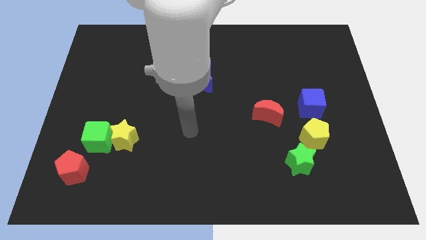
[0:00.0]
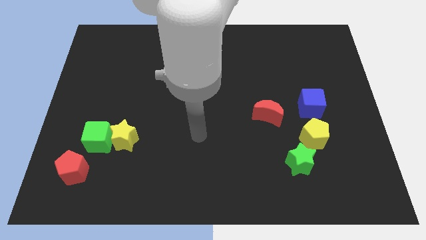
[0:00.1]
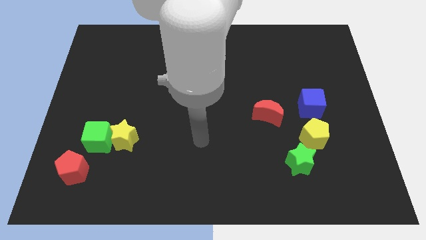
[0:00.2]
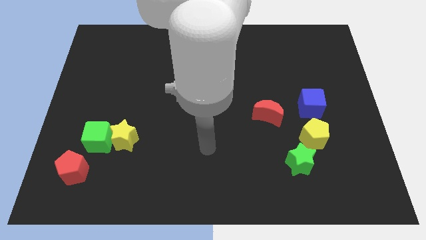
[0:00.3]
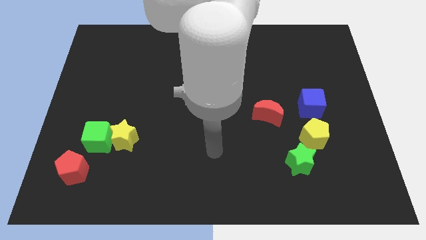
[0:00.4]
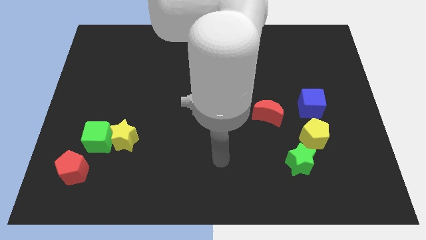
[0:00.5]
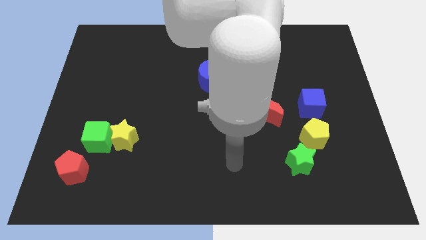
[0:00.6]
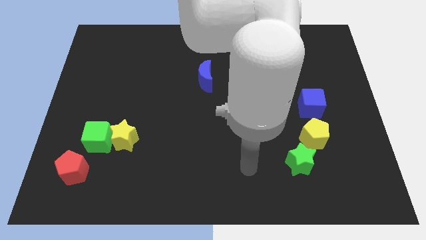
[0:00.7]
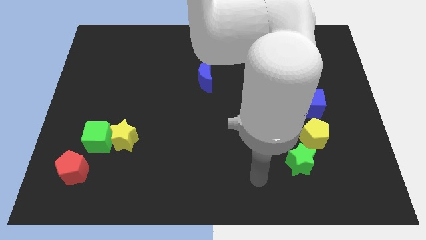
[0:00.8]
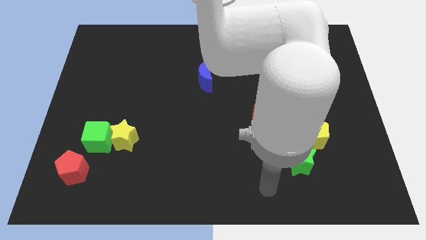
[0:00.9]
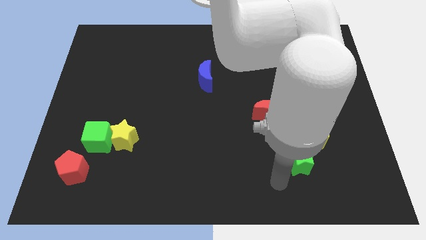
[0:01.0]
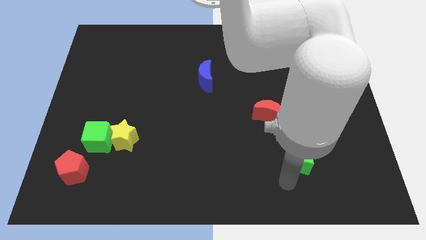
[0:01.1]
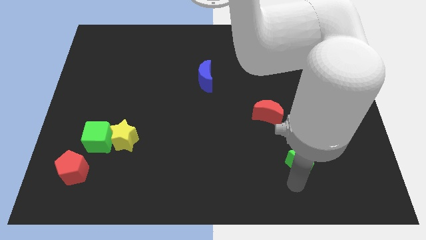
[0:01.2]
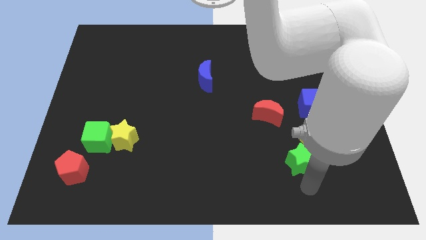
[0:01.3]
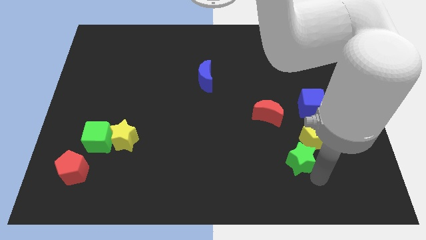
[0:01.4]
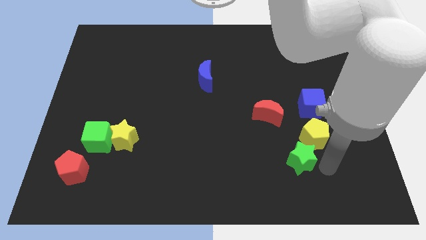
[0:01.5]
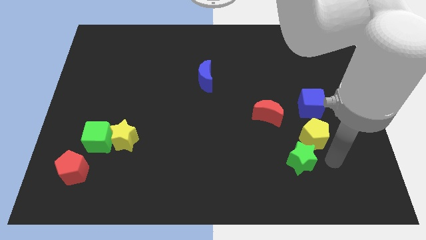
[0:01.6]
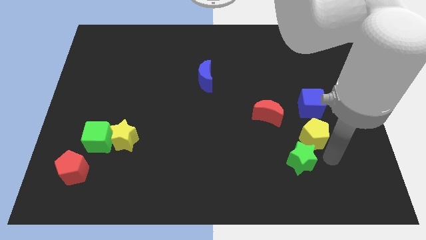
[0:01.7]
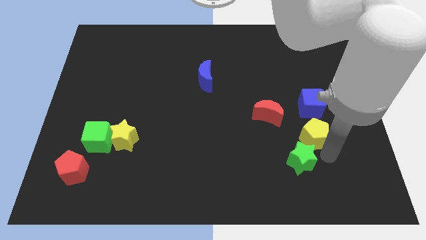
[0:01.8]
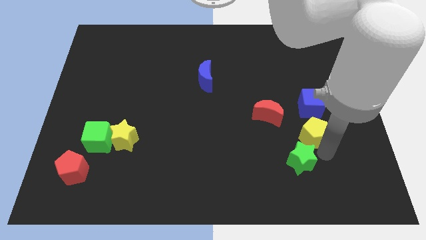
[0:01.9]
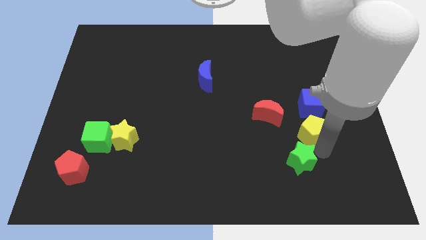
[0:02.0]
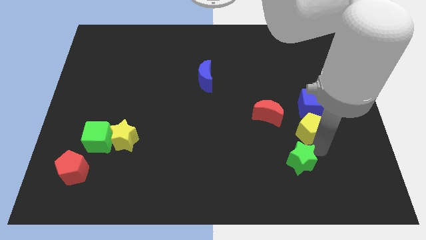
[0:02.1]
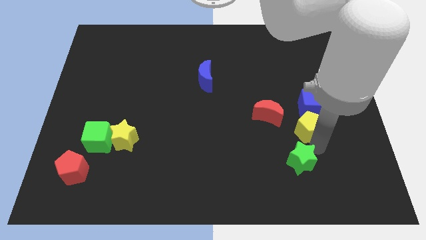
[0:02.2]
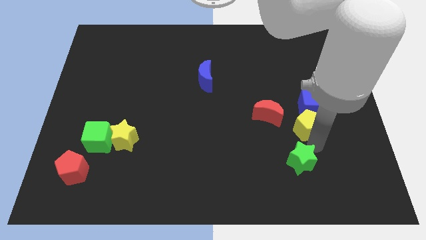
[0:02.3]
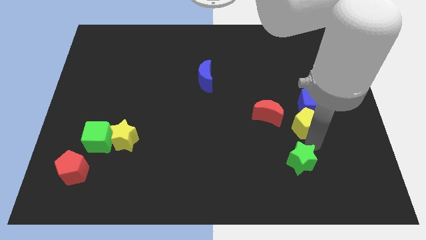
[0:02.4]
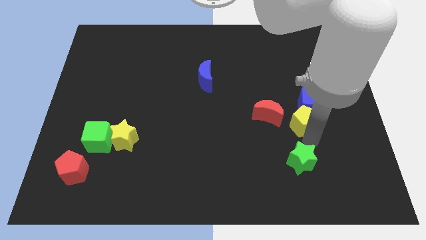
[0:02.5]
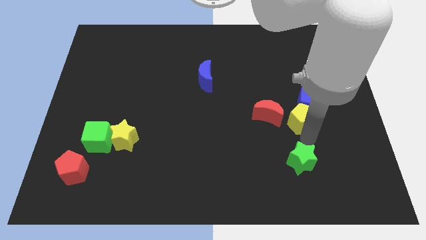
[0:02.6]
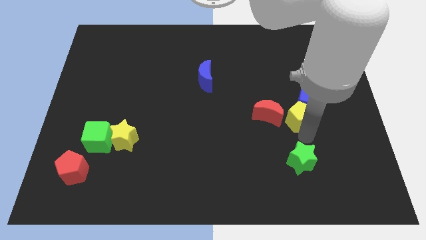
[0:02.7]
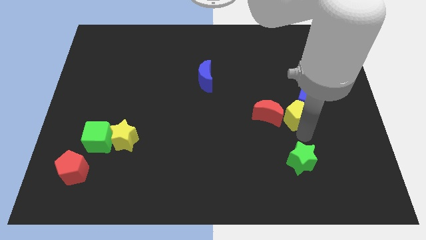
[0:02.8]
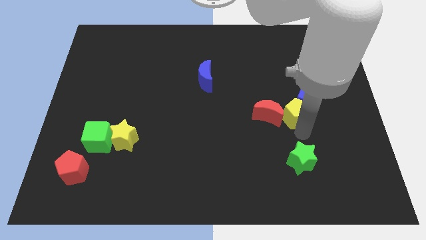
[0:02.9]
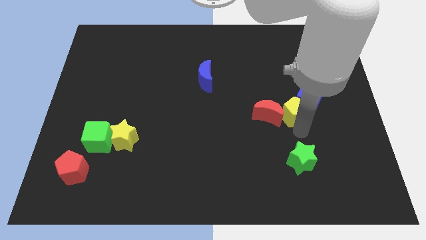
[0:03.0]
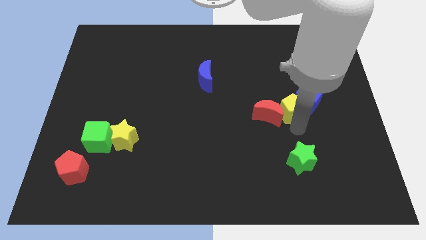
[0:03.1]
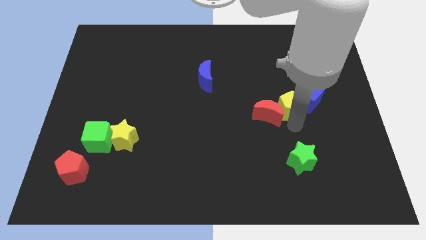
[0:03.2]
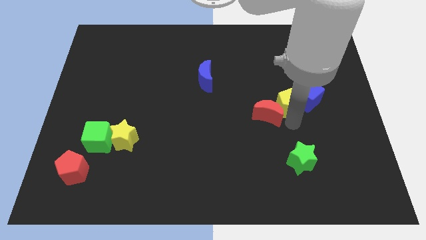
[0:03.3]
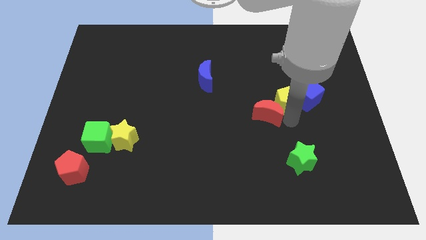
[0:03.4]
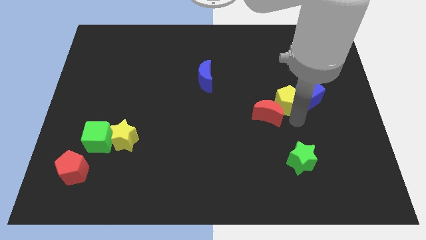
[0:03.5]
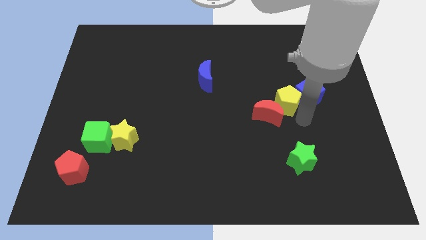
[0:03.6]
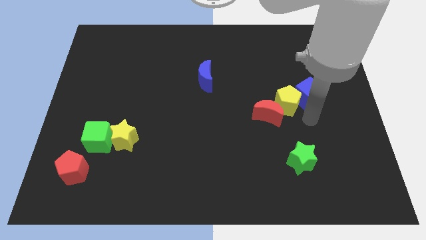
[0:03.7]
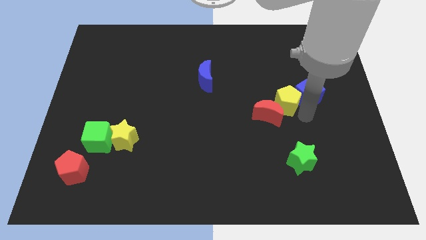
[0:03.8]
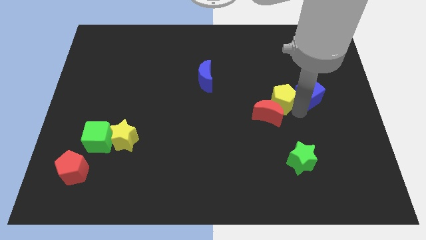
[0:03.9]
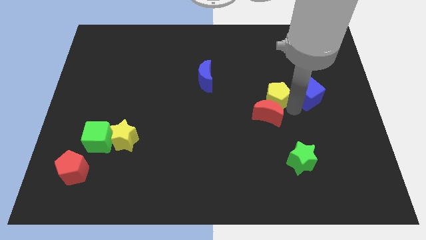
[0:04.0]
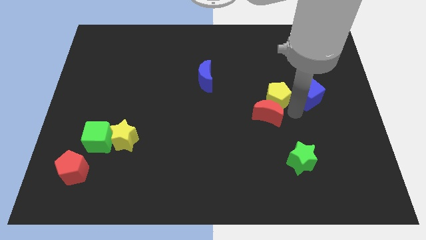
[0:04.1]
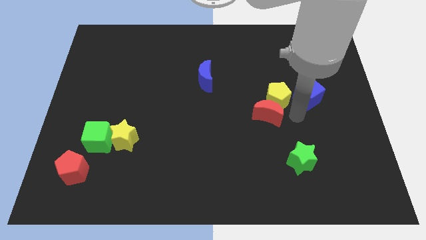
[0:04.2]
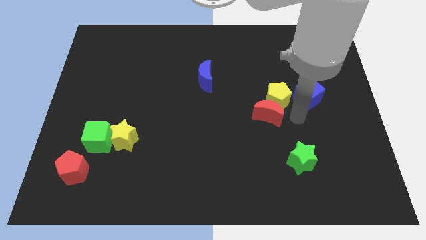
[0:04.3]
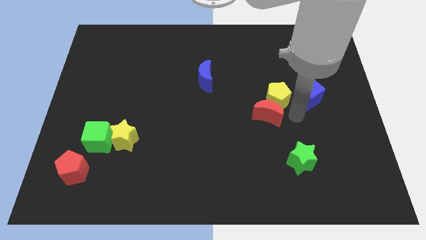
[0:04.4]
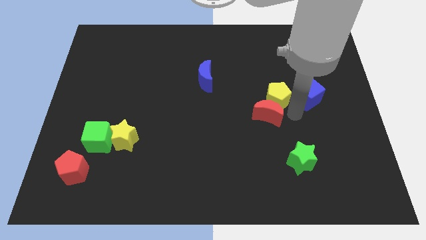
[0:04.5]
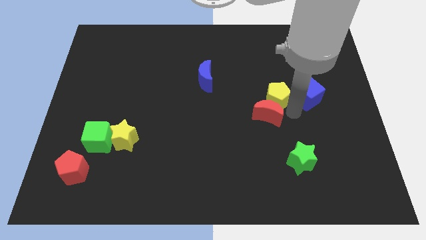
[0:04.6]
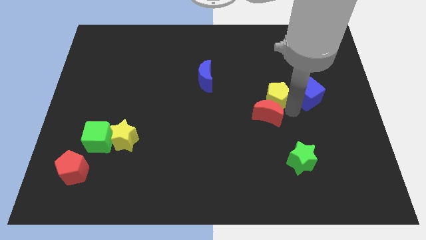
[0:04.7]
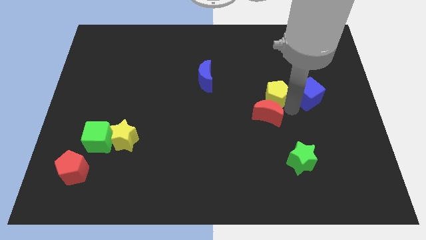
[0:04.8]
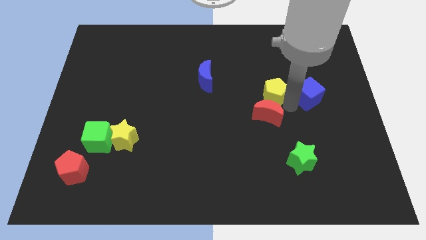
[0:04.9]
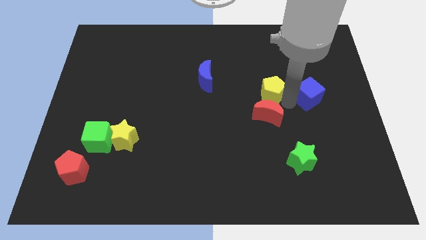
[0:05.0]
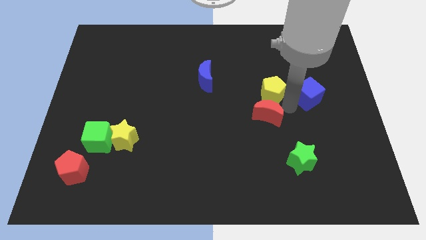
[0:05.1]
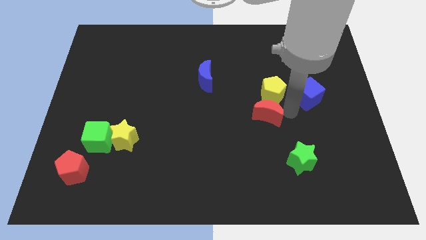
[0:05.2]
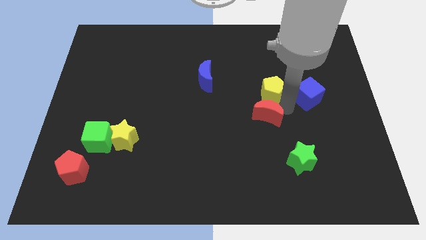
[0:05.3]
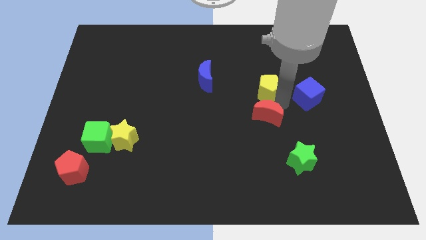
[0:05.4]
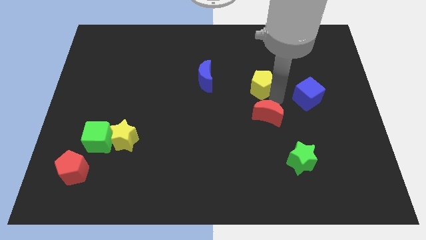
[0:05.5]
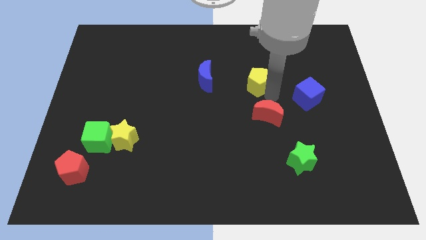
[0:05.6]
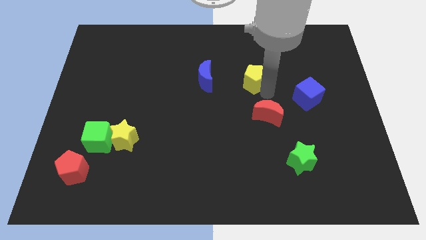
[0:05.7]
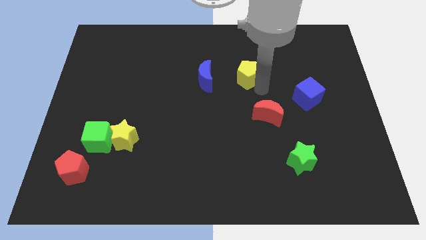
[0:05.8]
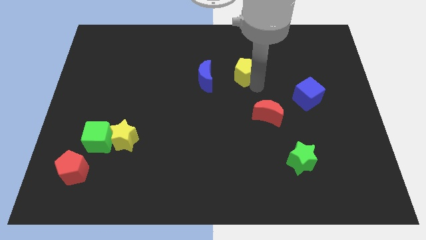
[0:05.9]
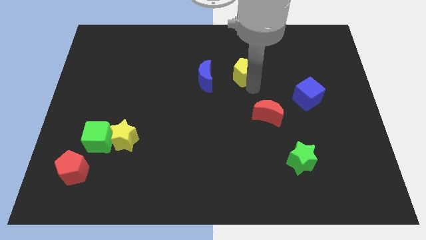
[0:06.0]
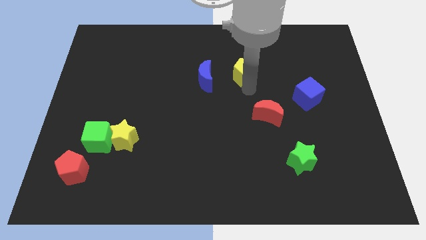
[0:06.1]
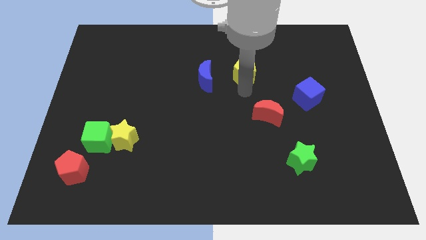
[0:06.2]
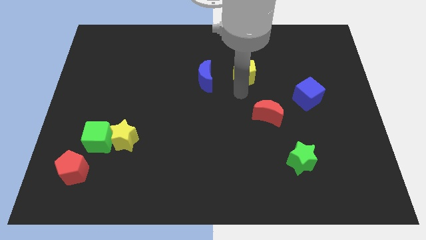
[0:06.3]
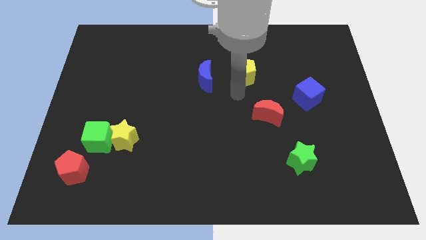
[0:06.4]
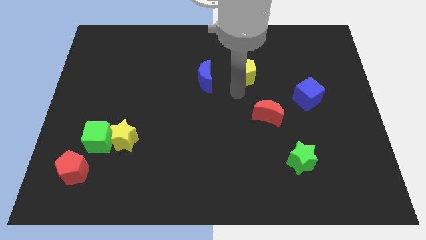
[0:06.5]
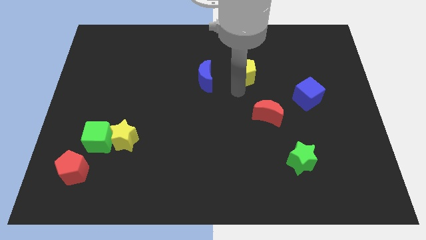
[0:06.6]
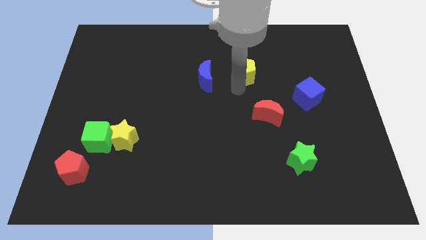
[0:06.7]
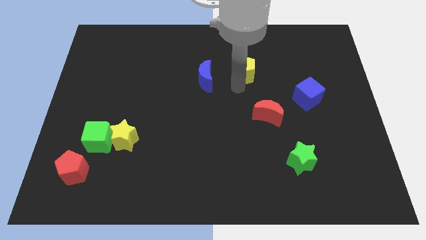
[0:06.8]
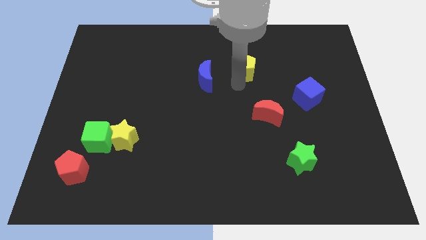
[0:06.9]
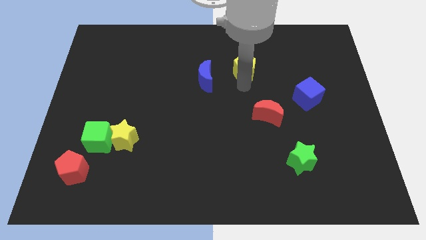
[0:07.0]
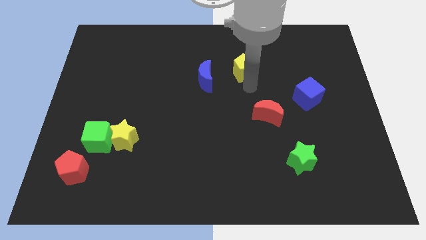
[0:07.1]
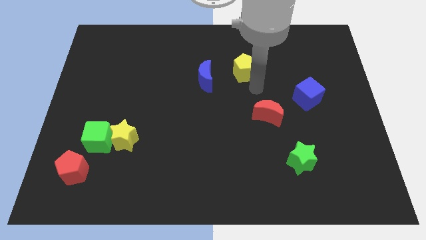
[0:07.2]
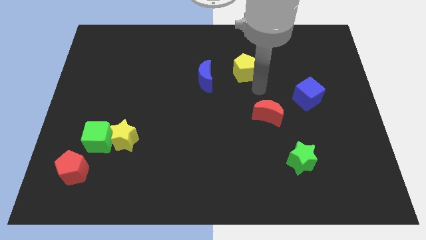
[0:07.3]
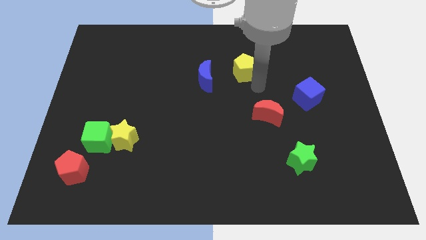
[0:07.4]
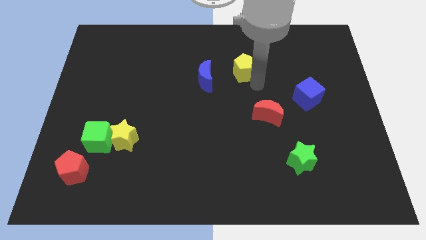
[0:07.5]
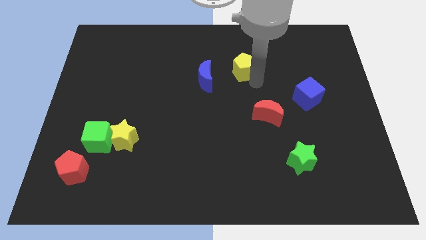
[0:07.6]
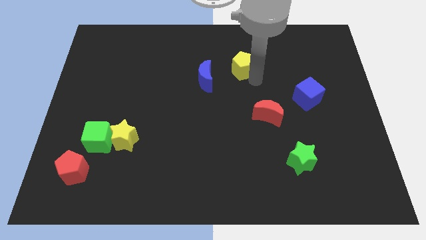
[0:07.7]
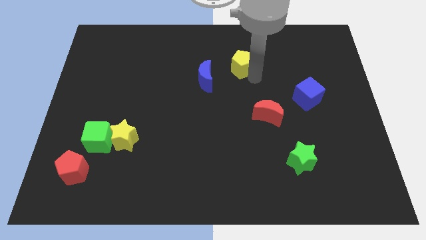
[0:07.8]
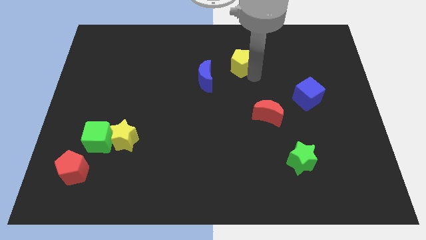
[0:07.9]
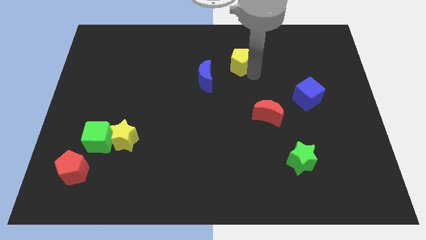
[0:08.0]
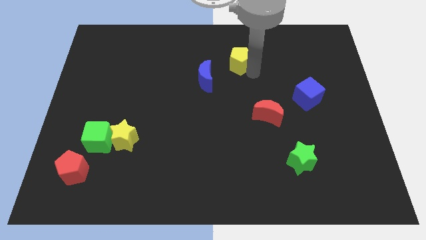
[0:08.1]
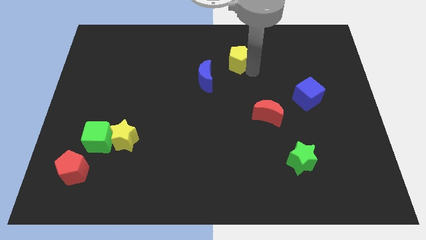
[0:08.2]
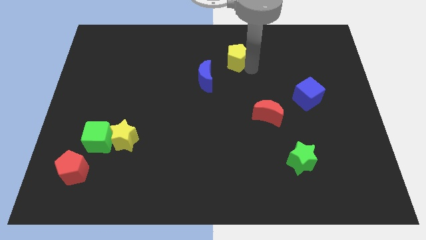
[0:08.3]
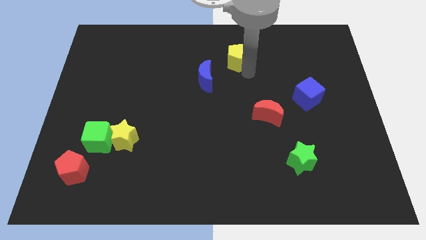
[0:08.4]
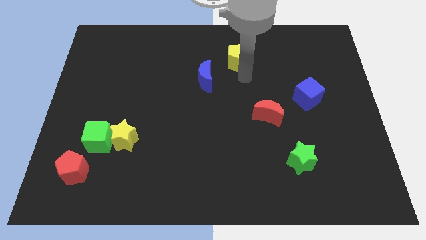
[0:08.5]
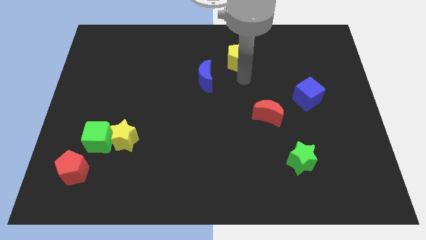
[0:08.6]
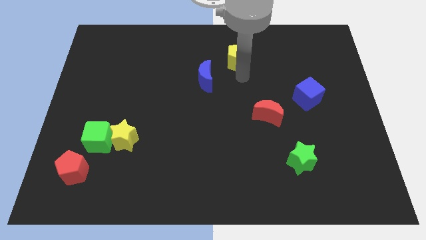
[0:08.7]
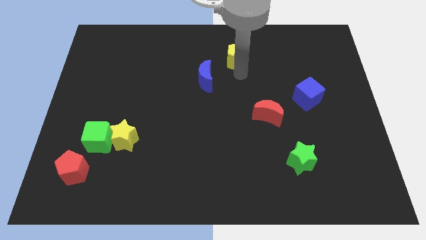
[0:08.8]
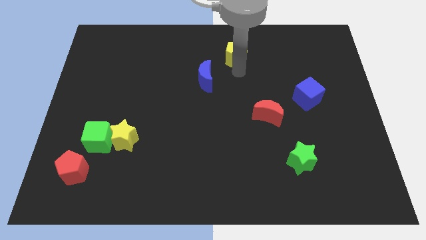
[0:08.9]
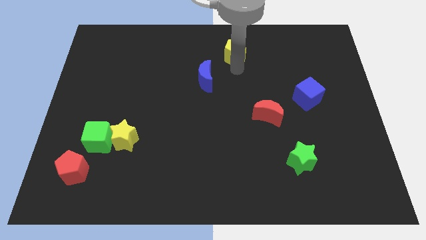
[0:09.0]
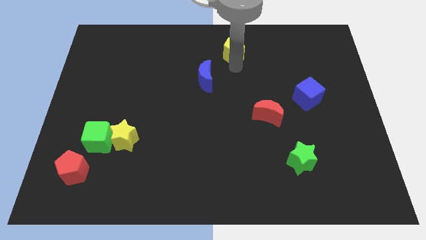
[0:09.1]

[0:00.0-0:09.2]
push the yellow pentagon to the towards your base
